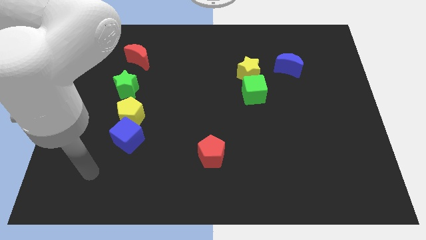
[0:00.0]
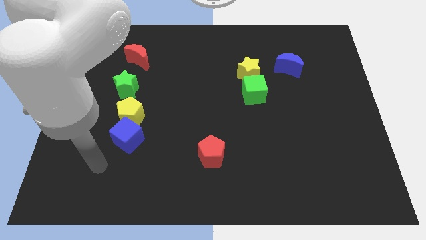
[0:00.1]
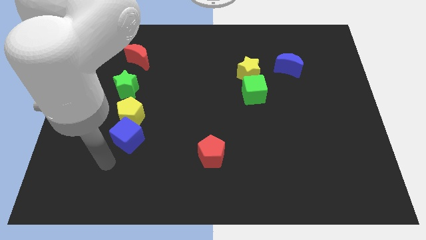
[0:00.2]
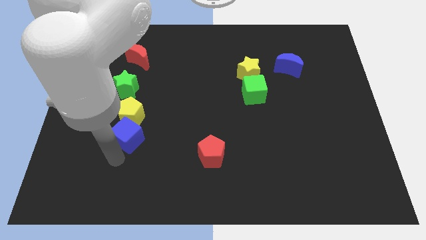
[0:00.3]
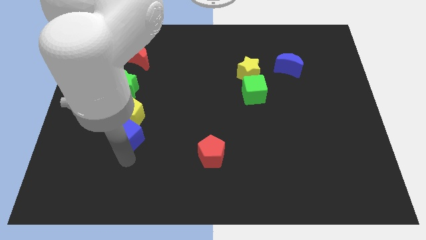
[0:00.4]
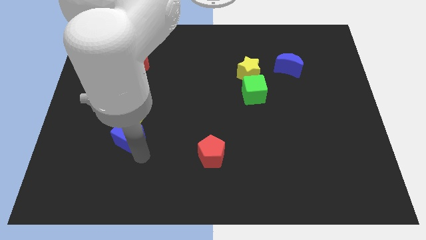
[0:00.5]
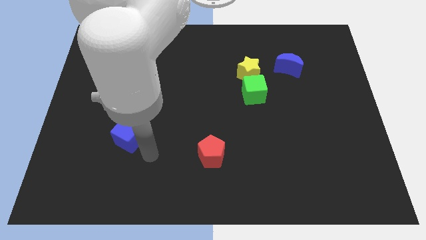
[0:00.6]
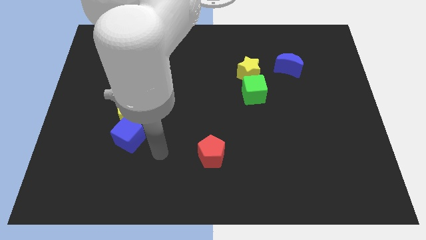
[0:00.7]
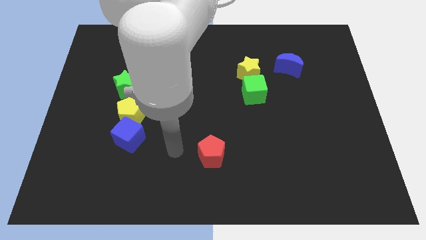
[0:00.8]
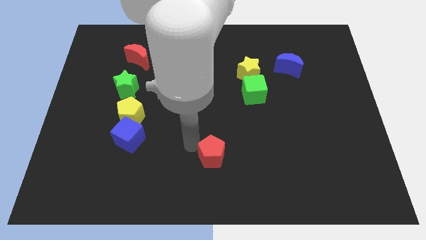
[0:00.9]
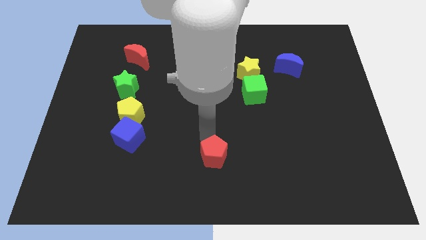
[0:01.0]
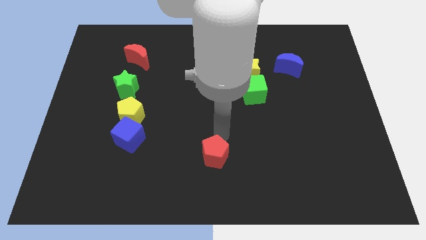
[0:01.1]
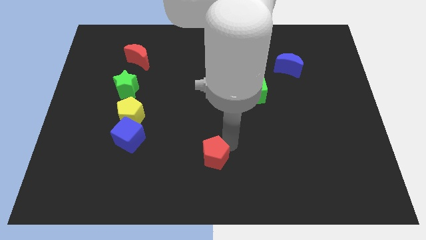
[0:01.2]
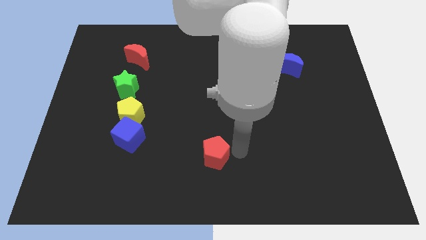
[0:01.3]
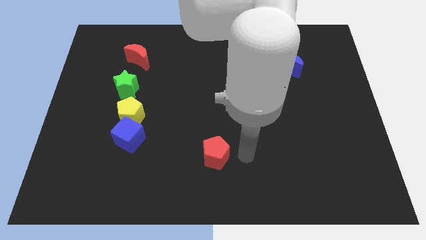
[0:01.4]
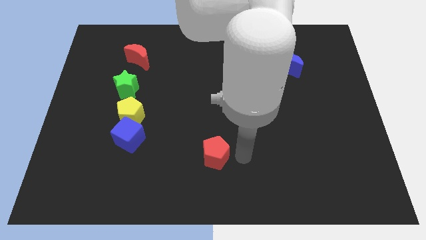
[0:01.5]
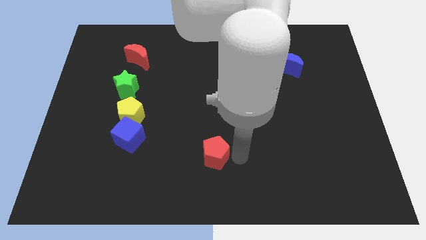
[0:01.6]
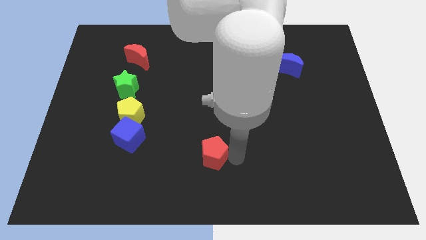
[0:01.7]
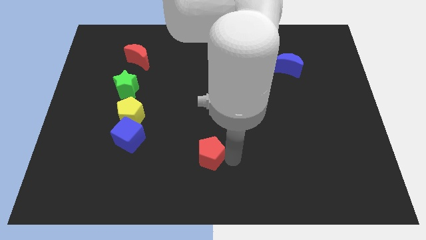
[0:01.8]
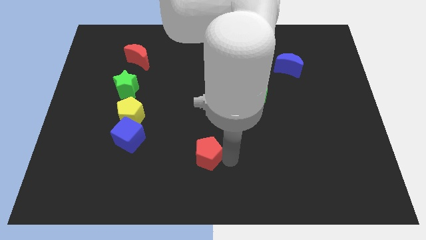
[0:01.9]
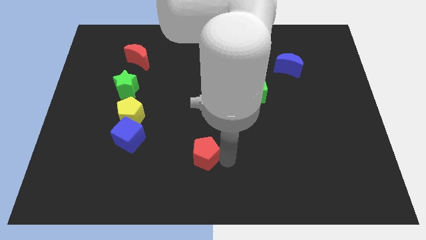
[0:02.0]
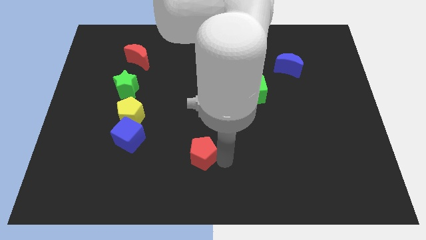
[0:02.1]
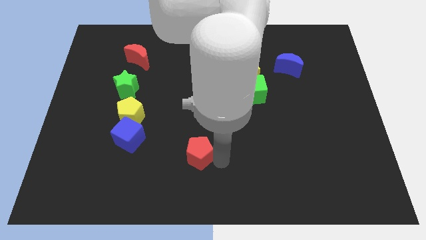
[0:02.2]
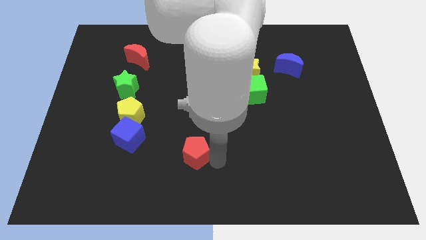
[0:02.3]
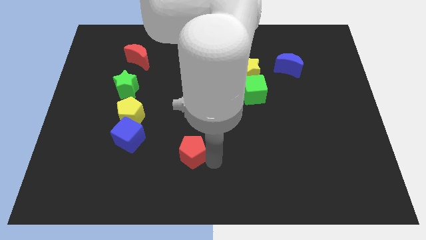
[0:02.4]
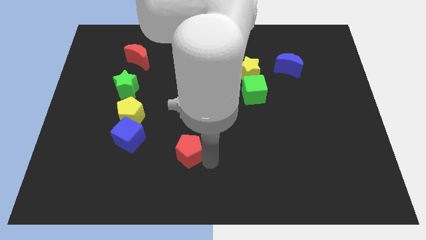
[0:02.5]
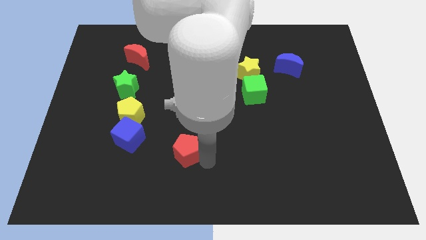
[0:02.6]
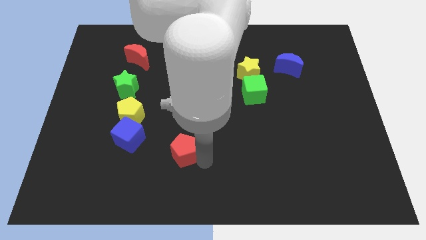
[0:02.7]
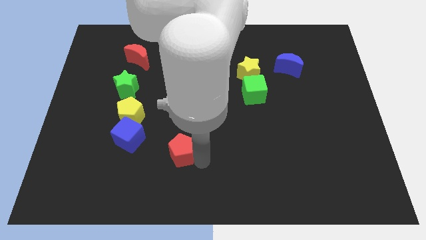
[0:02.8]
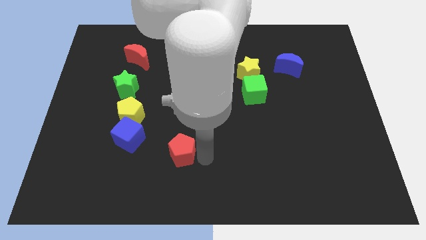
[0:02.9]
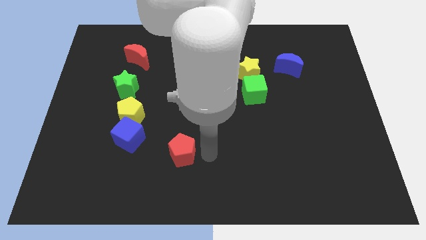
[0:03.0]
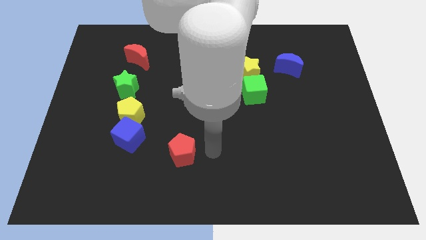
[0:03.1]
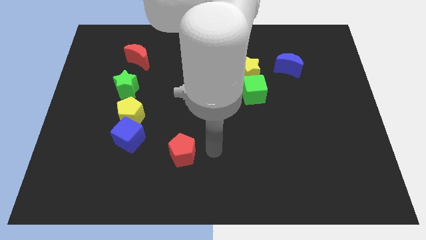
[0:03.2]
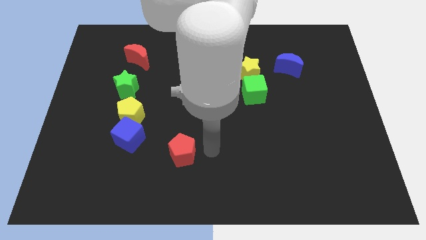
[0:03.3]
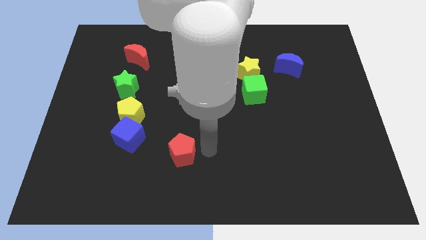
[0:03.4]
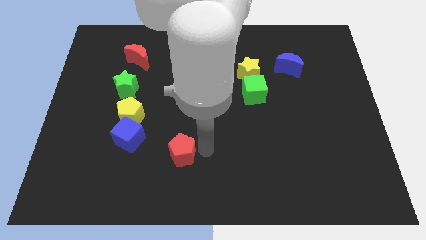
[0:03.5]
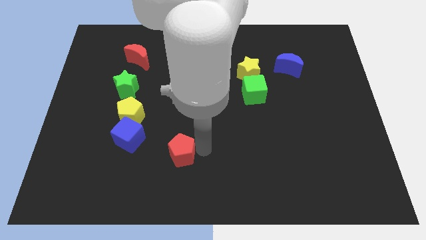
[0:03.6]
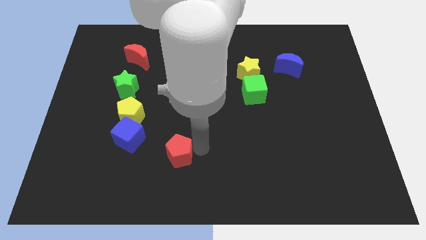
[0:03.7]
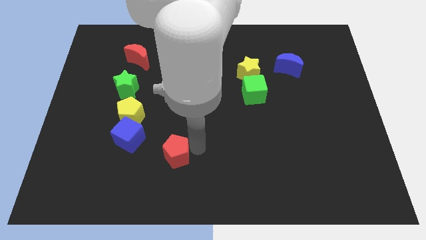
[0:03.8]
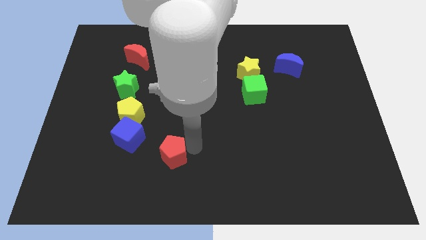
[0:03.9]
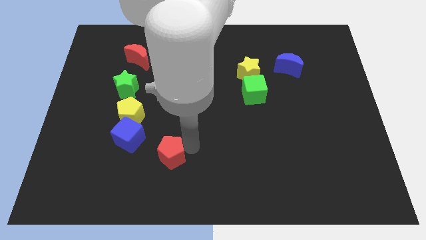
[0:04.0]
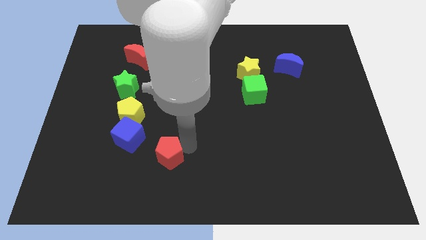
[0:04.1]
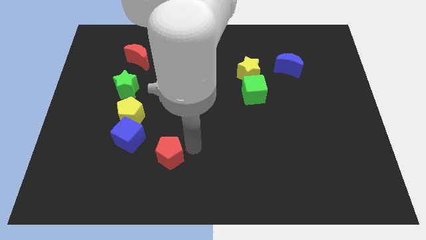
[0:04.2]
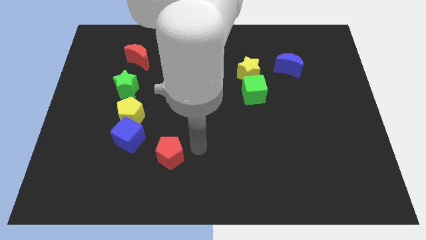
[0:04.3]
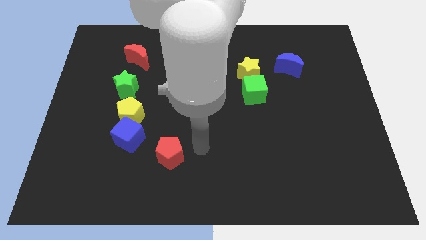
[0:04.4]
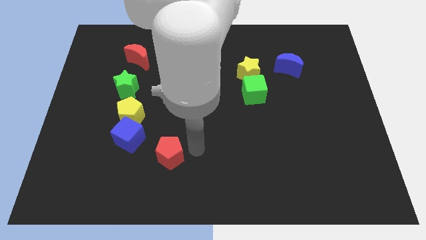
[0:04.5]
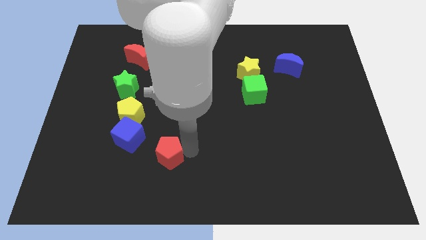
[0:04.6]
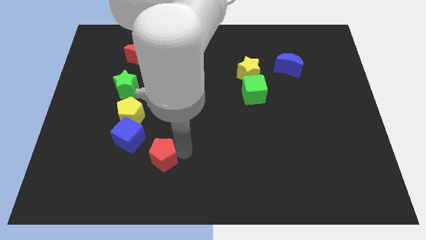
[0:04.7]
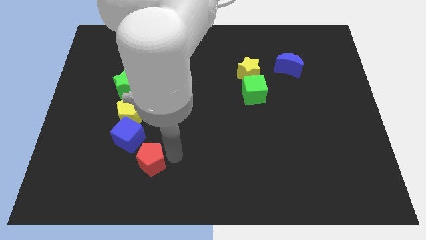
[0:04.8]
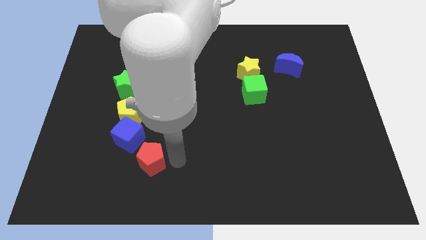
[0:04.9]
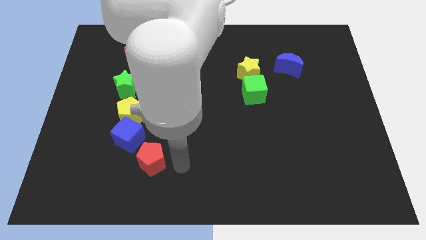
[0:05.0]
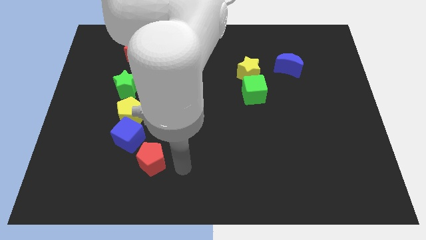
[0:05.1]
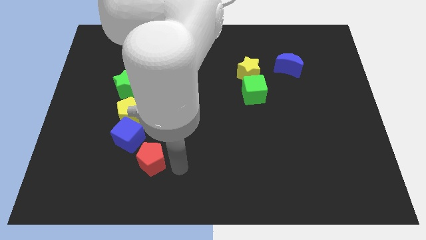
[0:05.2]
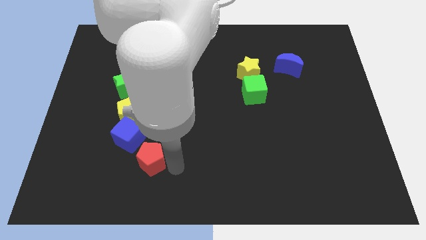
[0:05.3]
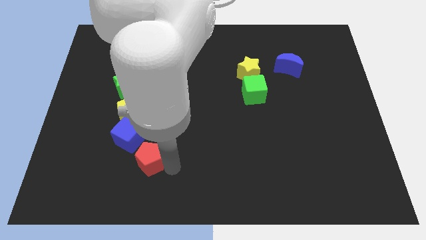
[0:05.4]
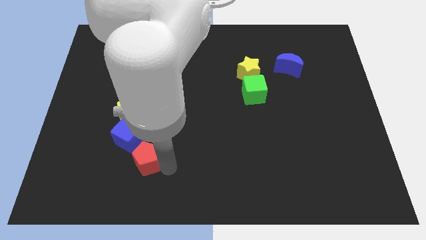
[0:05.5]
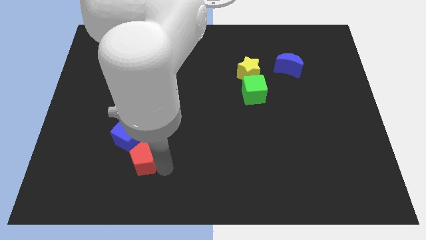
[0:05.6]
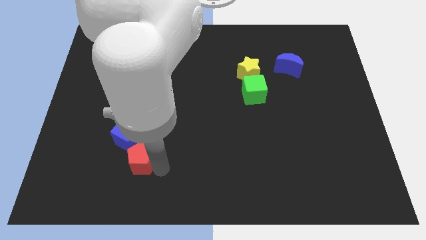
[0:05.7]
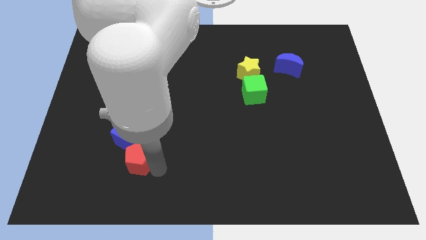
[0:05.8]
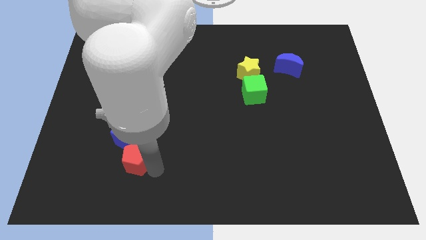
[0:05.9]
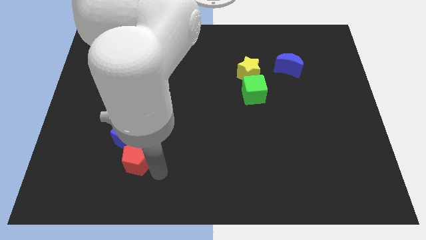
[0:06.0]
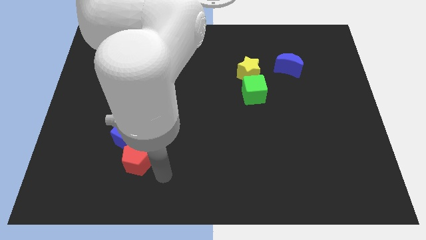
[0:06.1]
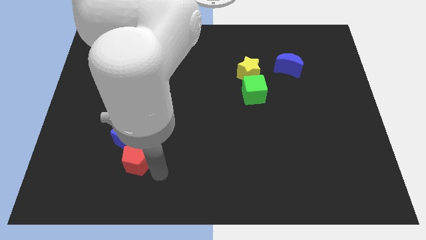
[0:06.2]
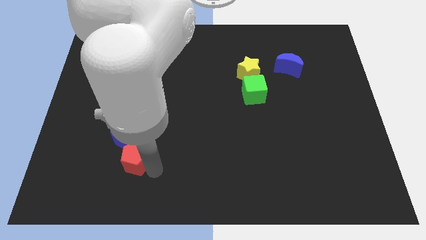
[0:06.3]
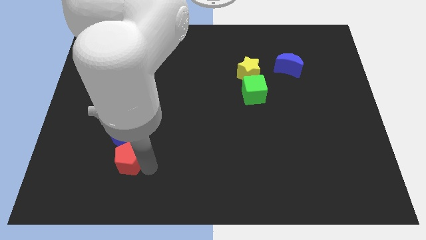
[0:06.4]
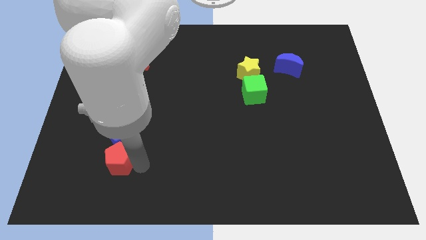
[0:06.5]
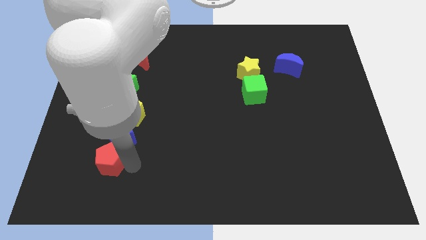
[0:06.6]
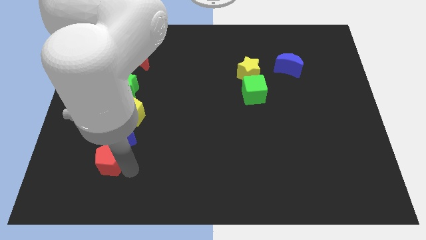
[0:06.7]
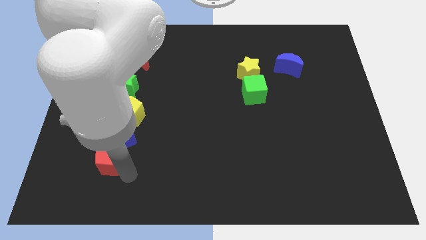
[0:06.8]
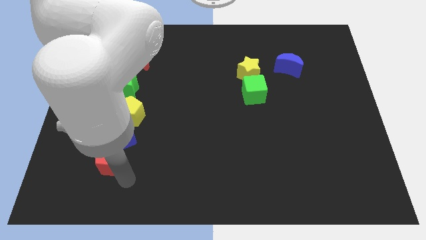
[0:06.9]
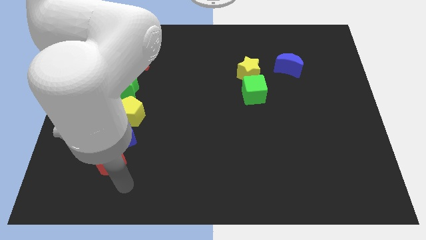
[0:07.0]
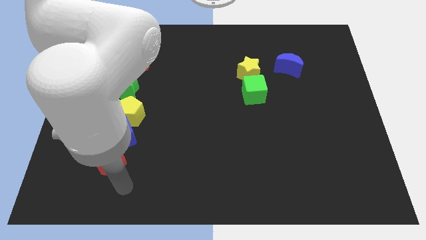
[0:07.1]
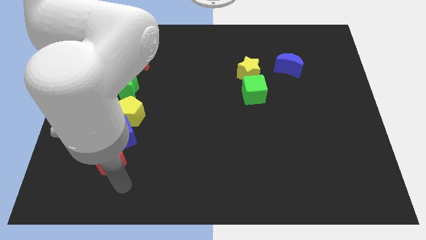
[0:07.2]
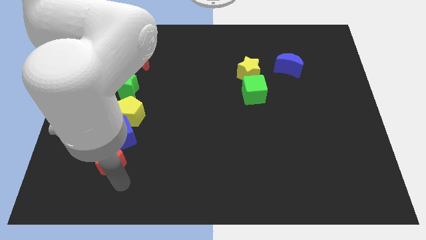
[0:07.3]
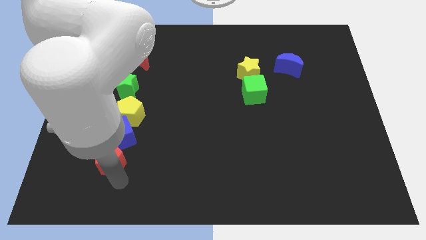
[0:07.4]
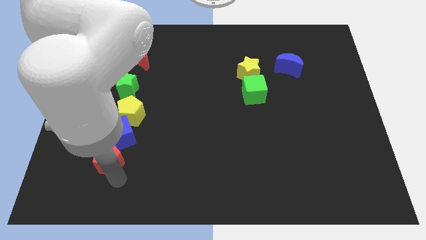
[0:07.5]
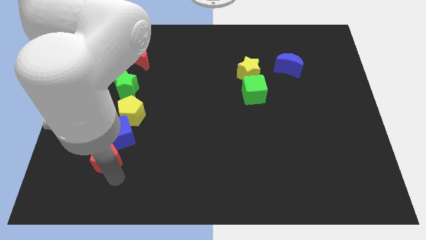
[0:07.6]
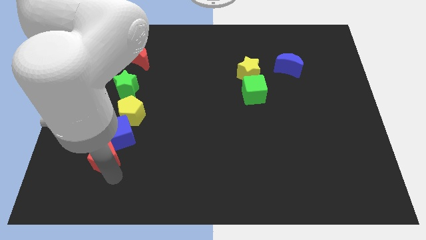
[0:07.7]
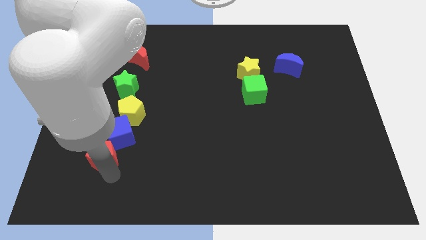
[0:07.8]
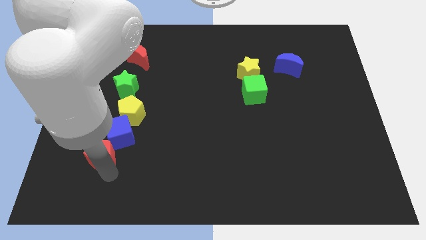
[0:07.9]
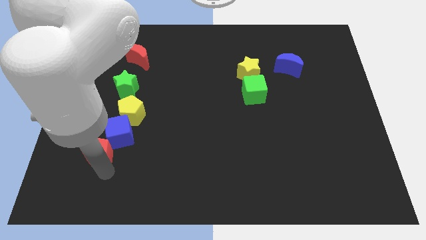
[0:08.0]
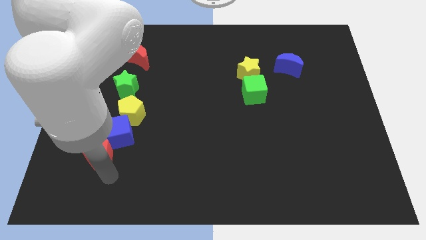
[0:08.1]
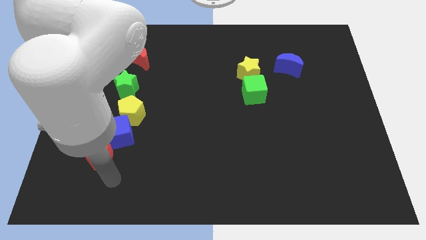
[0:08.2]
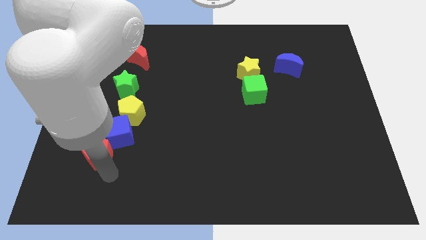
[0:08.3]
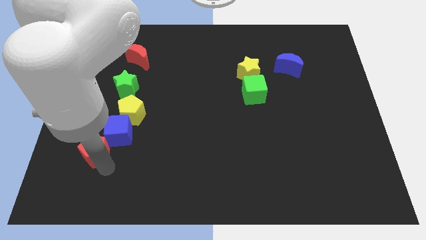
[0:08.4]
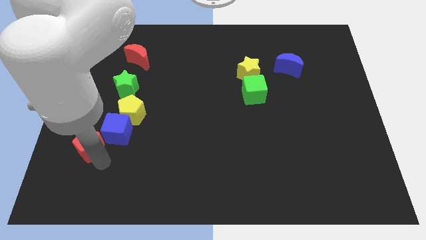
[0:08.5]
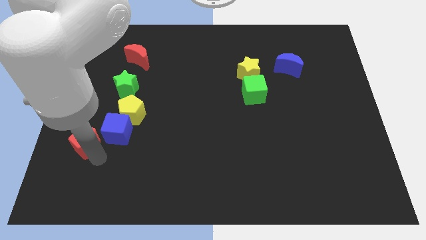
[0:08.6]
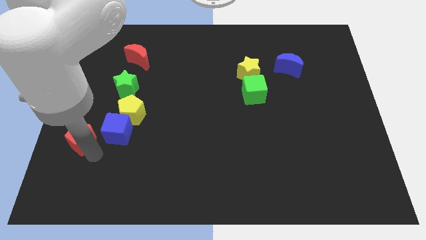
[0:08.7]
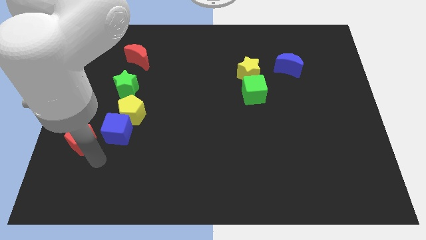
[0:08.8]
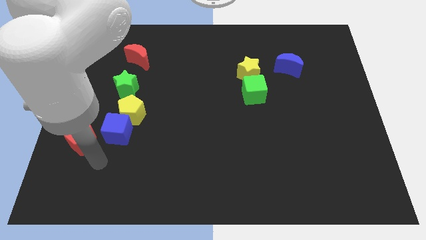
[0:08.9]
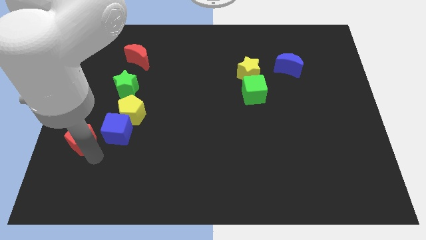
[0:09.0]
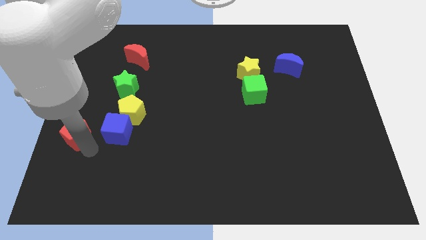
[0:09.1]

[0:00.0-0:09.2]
slide the red pentagon to the left side of the board
